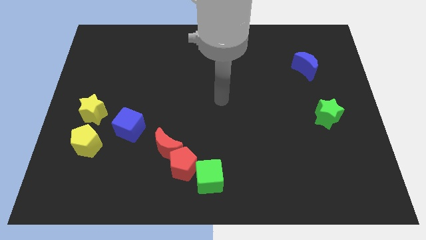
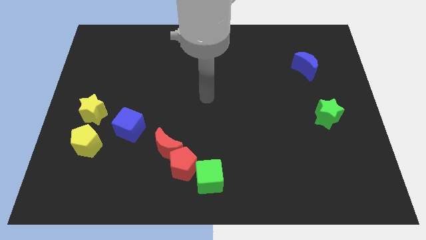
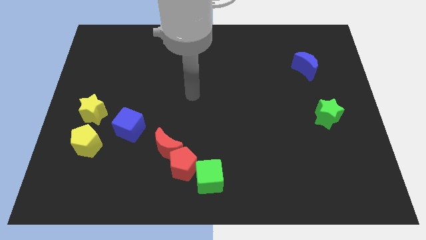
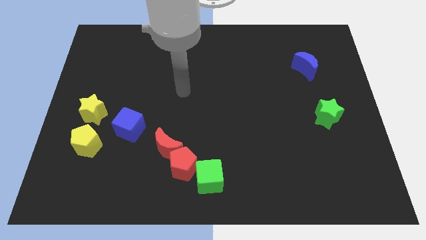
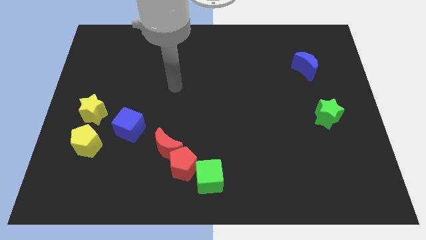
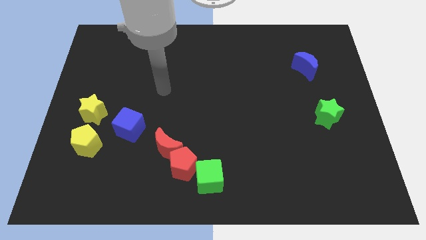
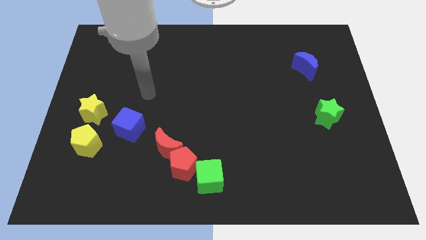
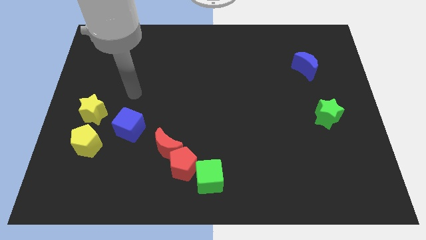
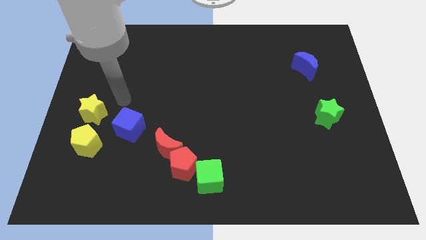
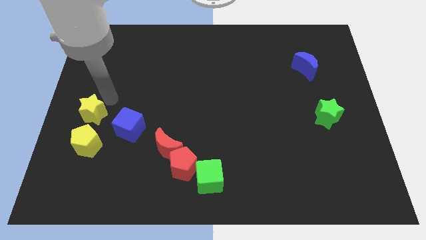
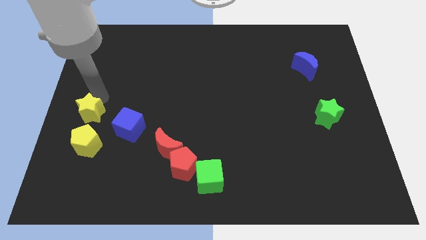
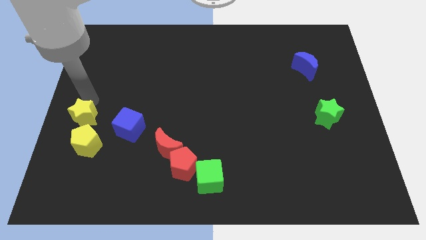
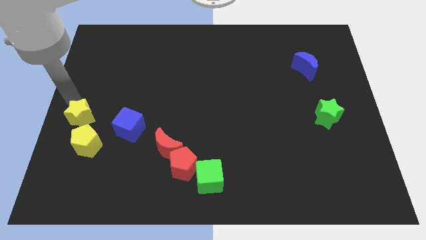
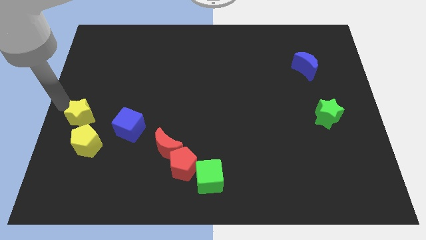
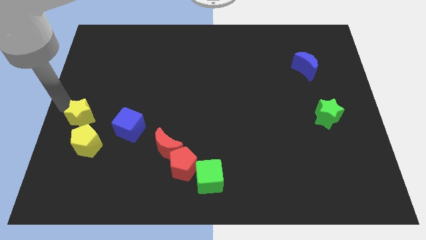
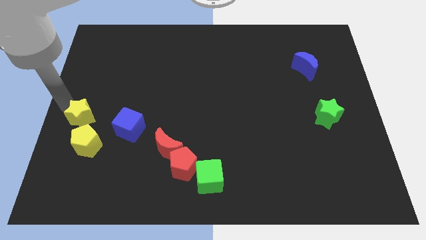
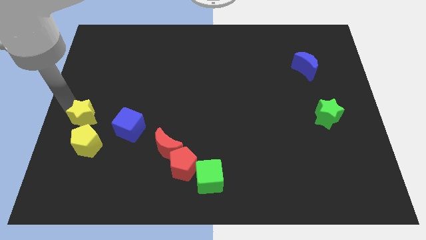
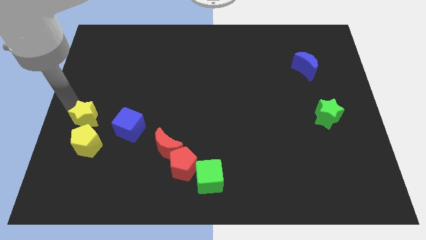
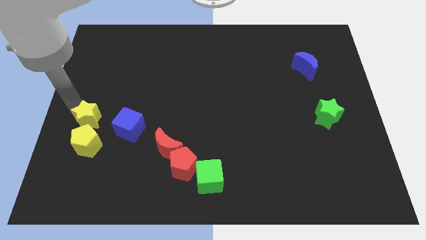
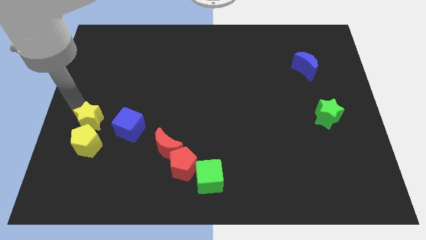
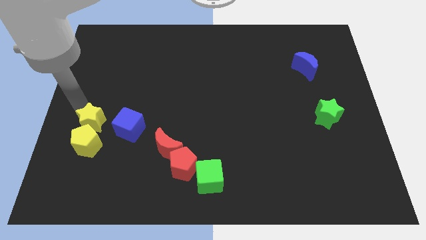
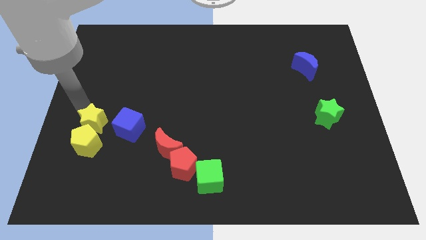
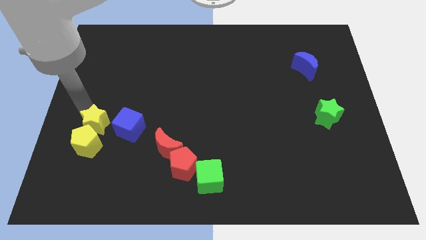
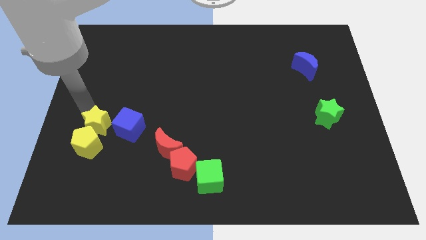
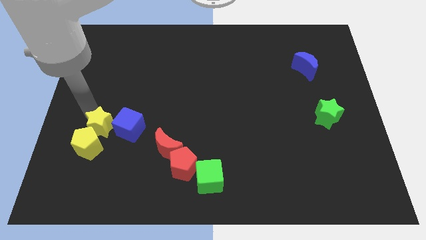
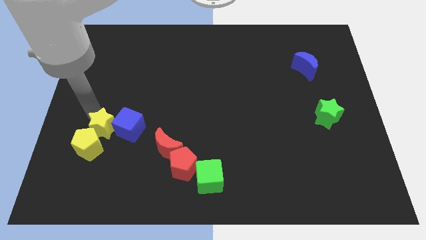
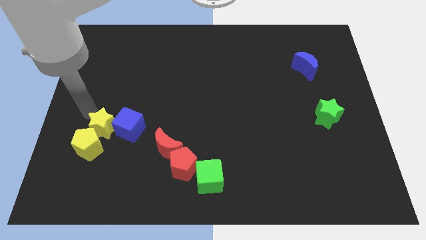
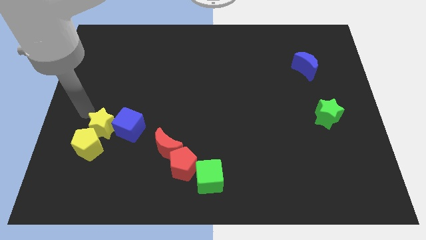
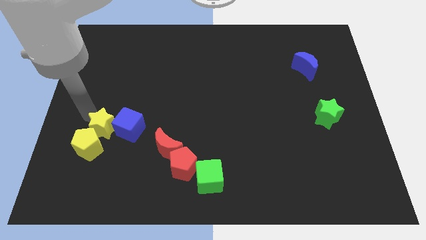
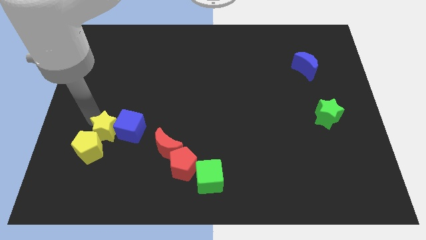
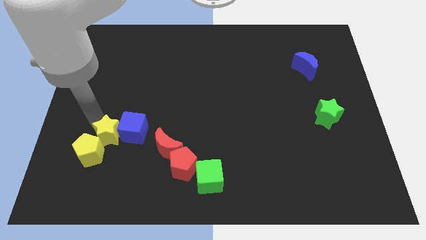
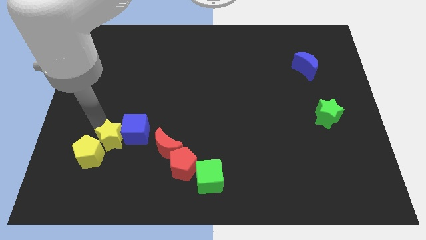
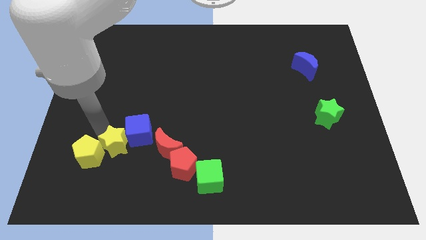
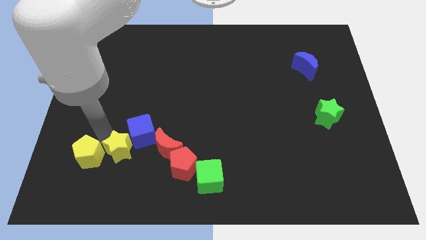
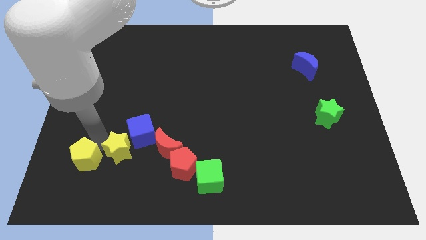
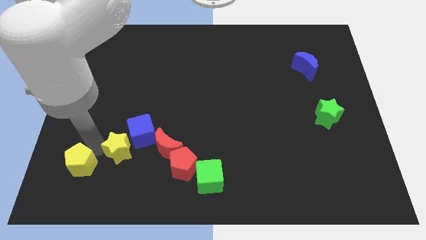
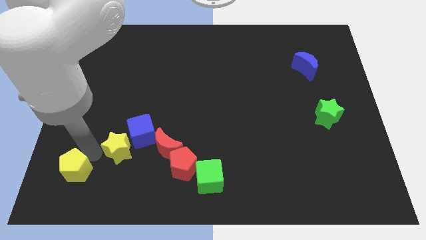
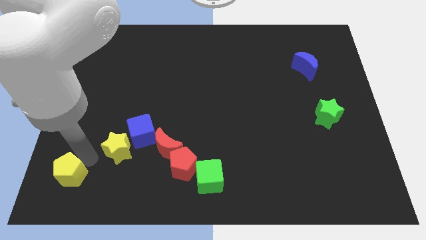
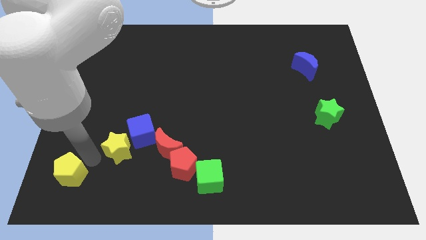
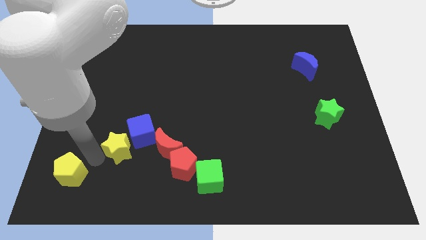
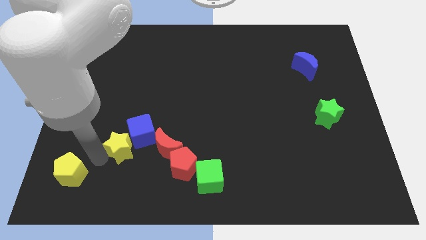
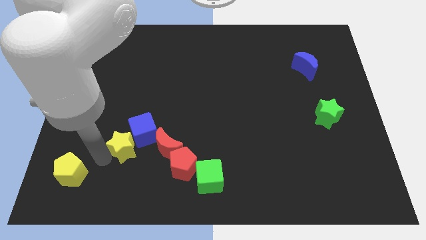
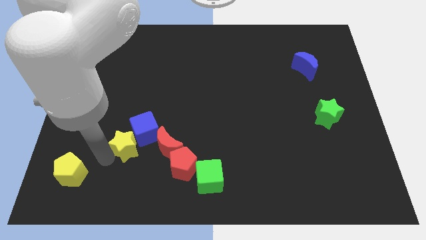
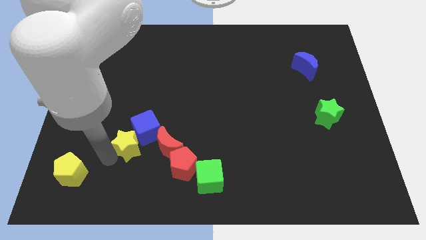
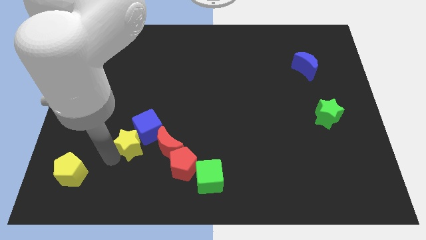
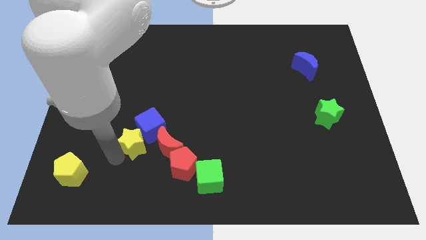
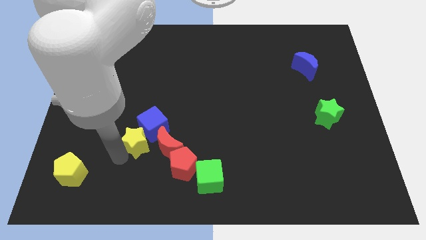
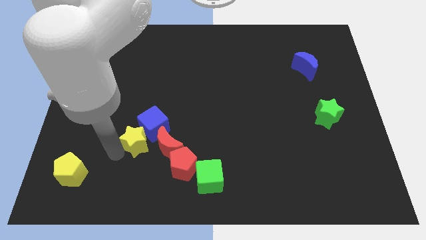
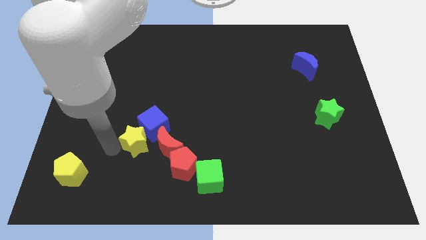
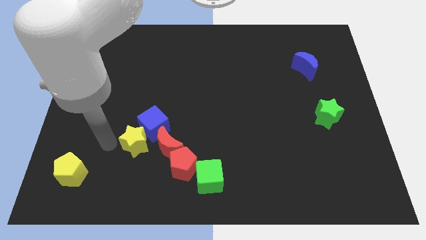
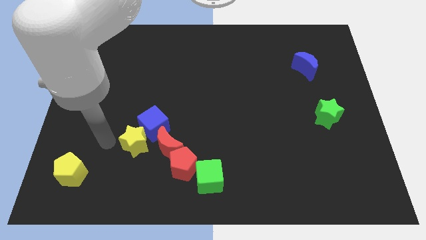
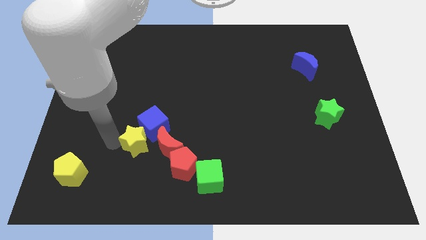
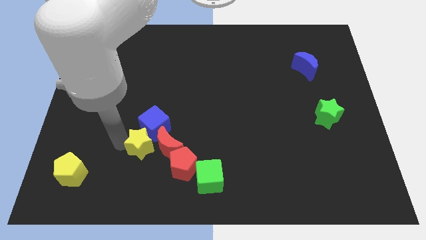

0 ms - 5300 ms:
push the yellow star towards the red moon

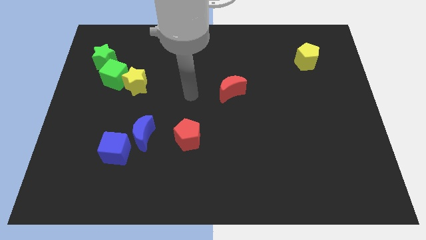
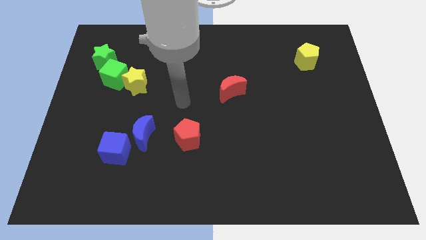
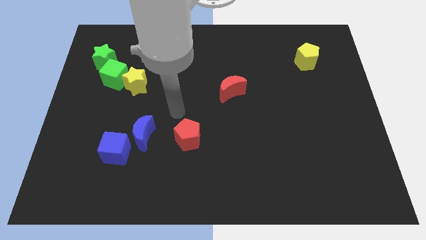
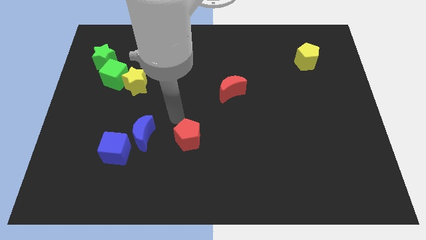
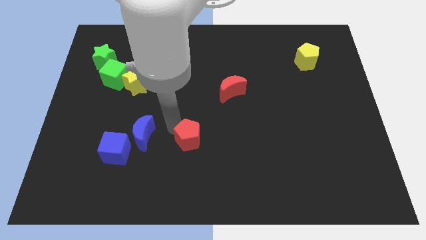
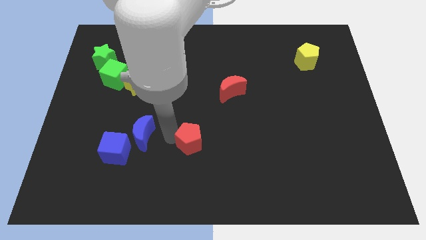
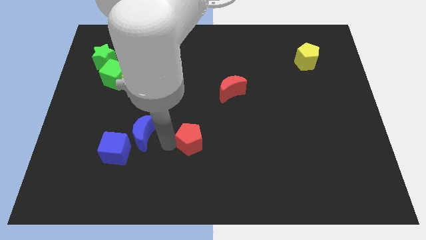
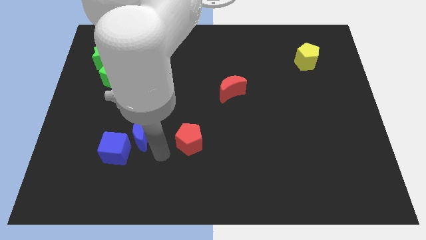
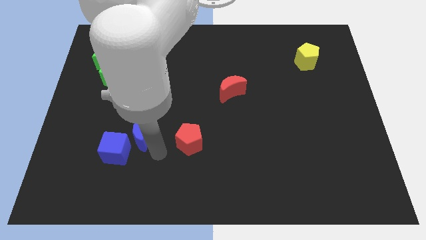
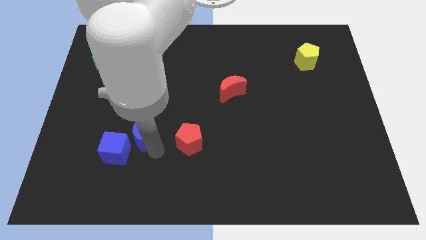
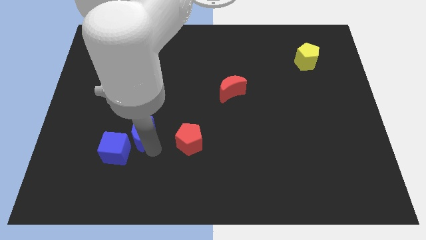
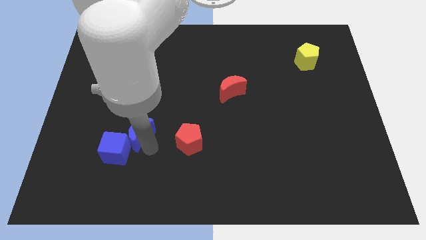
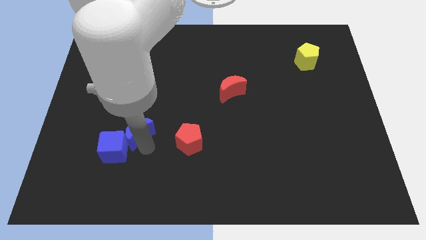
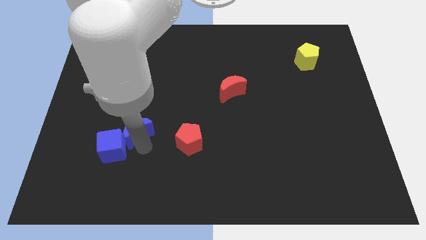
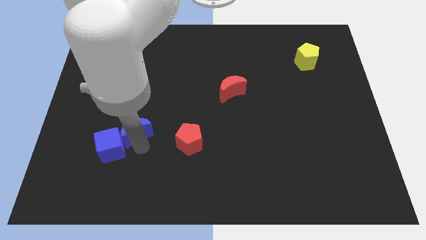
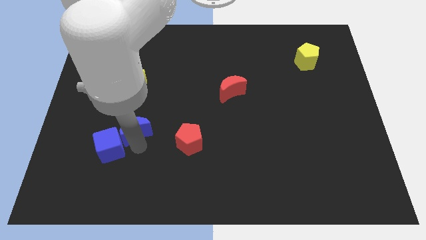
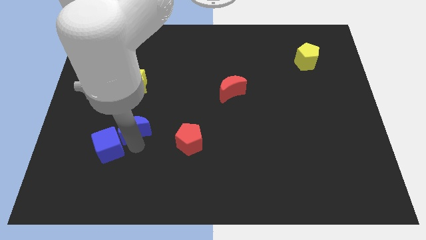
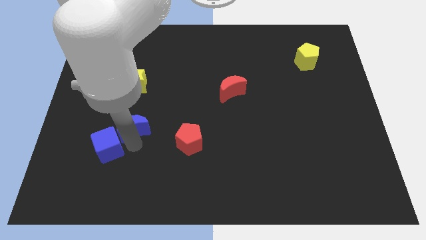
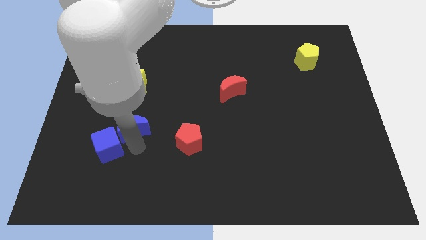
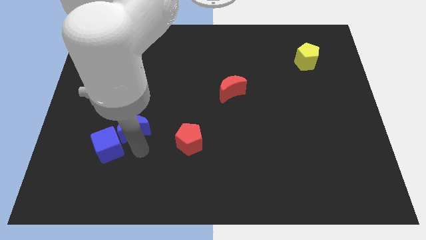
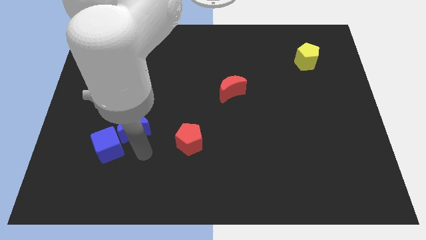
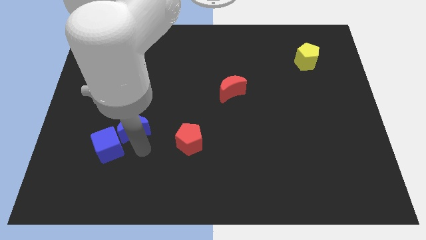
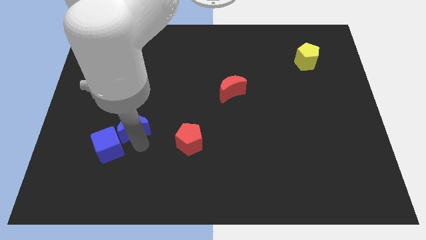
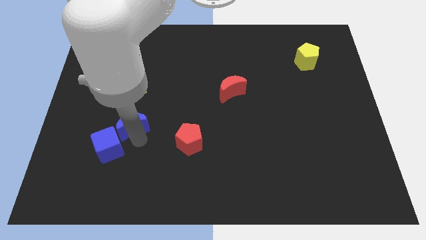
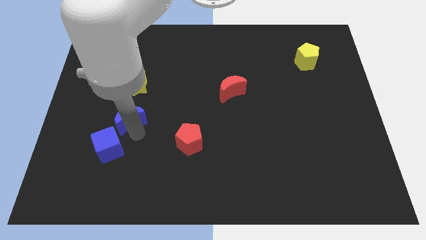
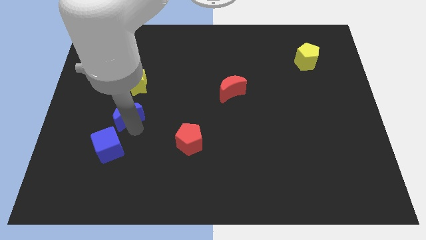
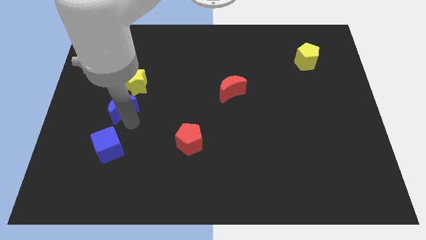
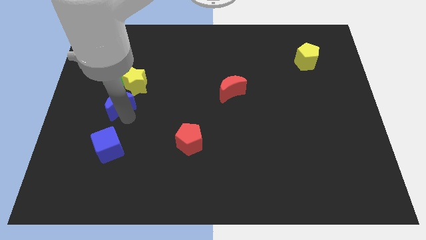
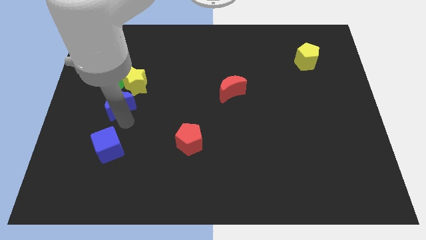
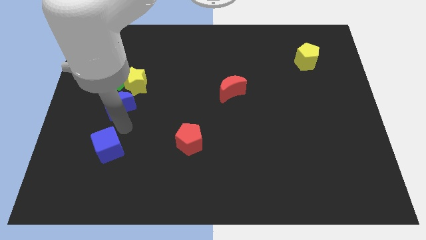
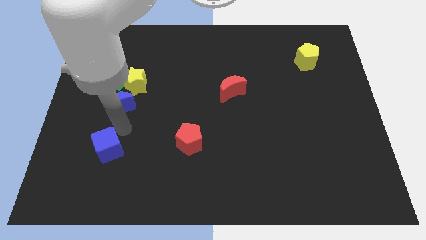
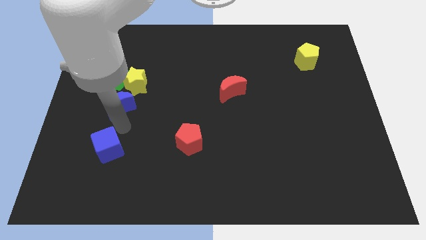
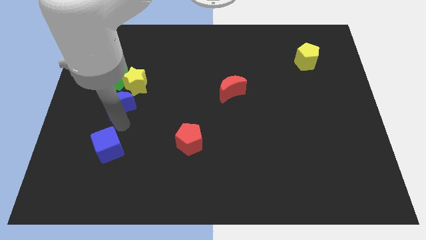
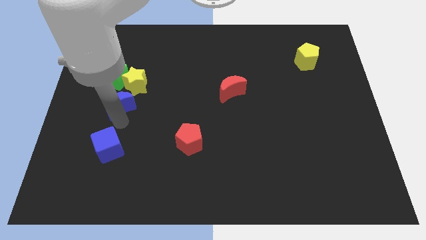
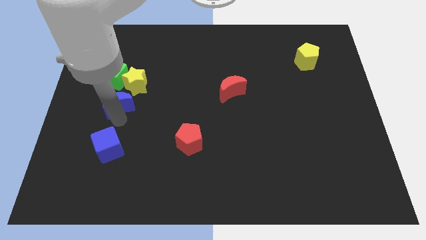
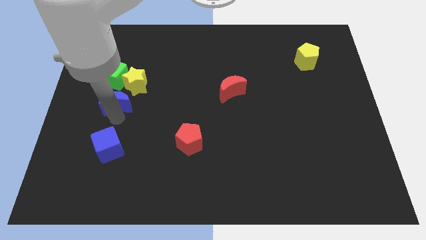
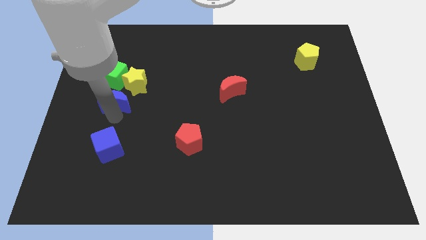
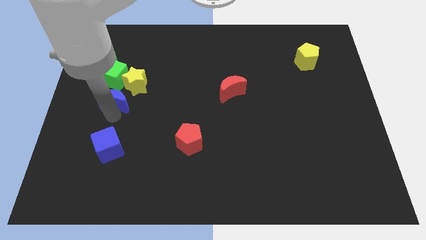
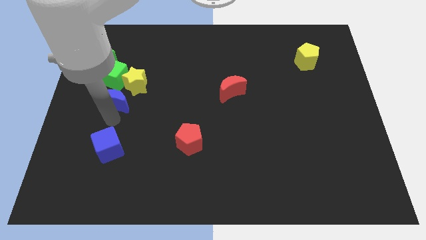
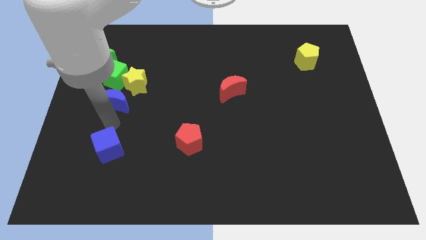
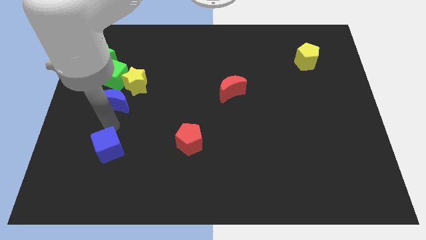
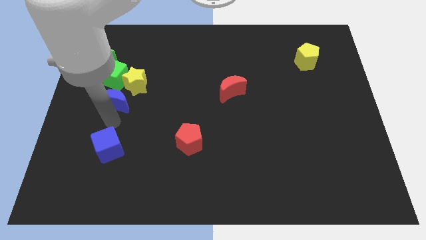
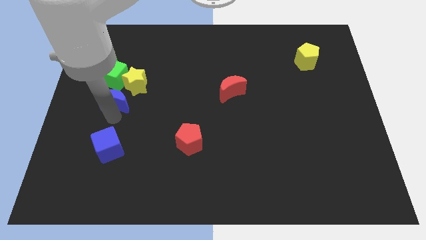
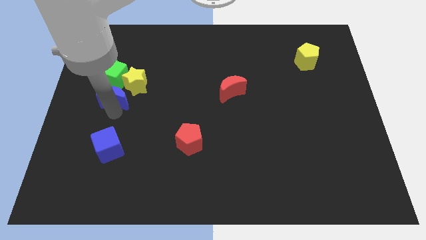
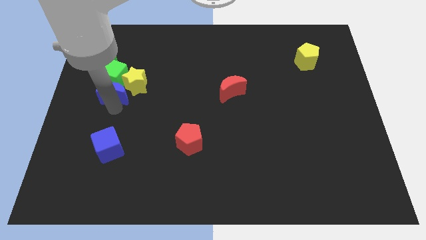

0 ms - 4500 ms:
move the blue moon to the green cube
